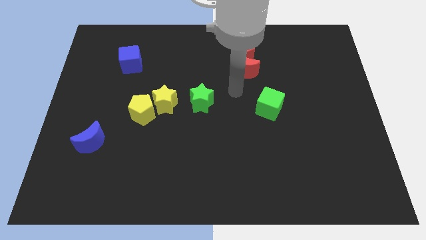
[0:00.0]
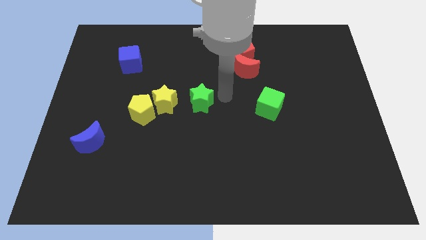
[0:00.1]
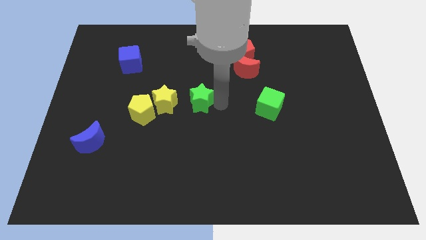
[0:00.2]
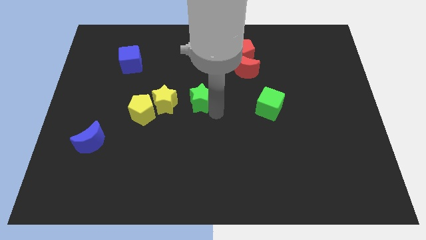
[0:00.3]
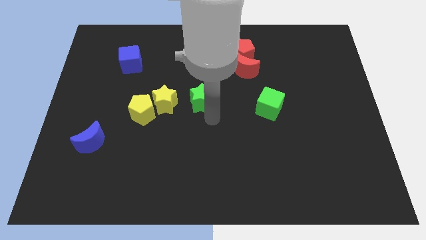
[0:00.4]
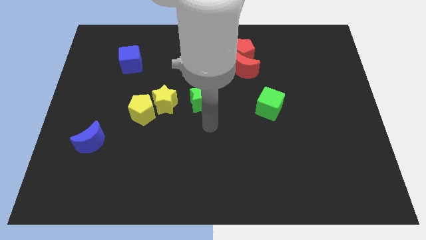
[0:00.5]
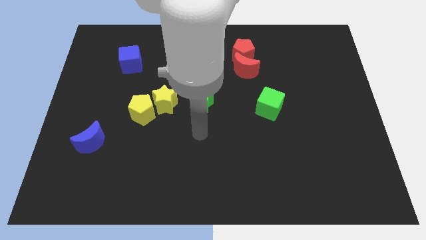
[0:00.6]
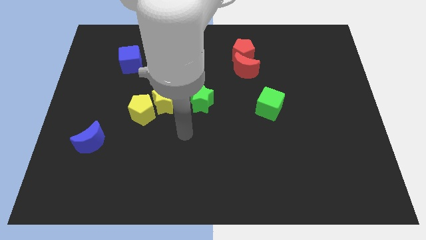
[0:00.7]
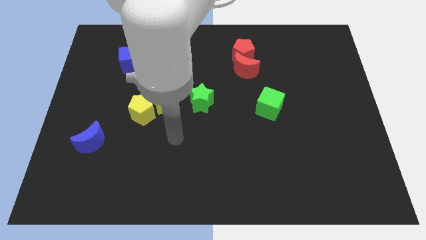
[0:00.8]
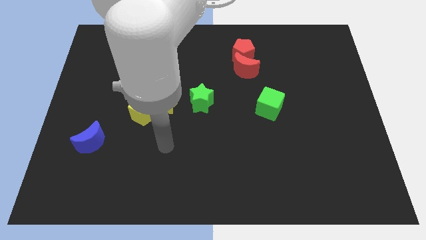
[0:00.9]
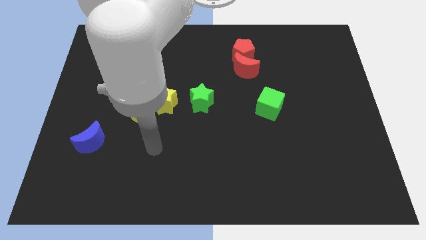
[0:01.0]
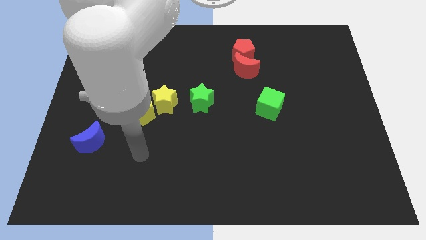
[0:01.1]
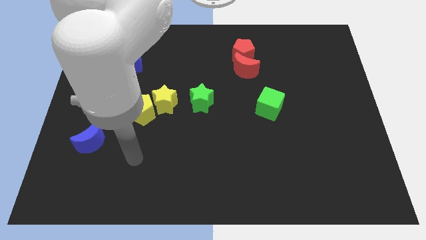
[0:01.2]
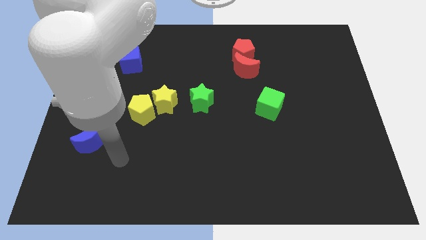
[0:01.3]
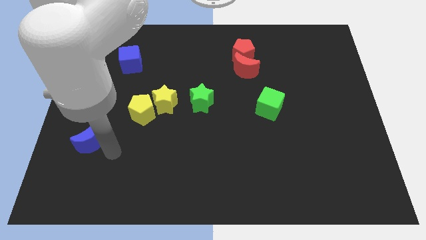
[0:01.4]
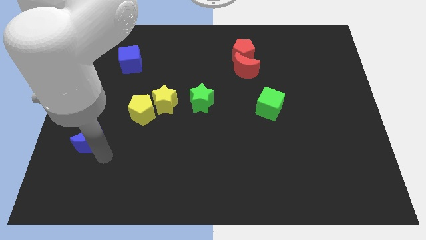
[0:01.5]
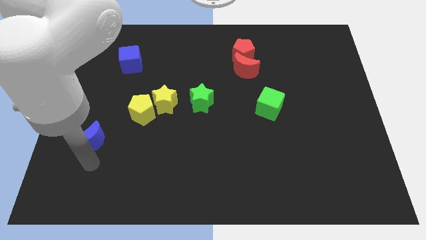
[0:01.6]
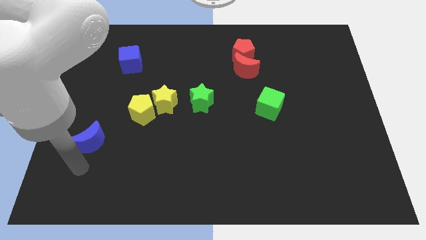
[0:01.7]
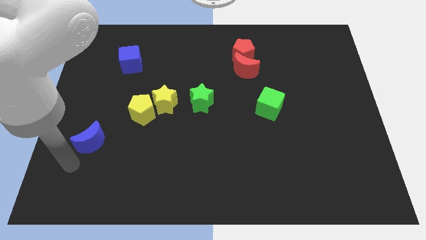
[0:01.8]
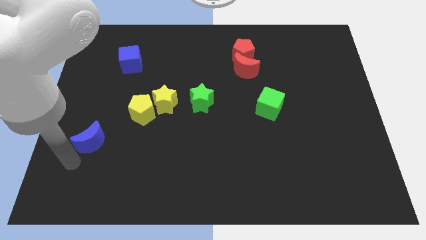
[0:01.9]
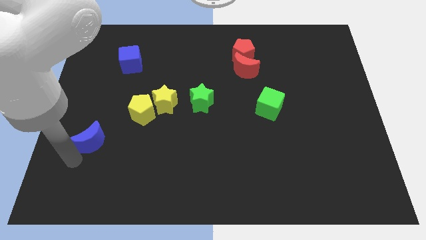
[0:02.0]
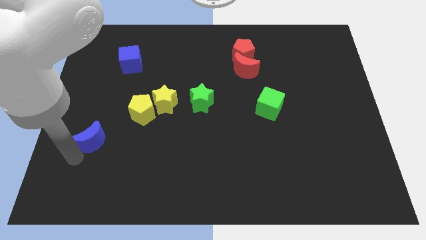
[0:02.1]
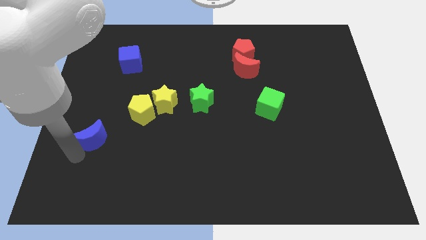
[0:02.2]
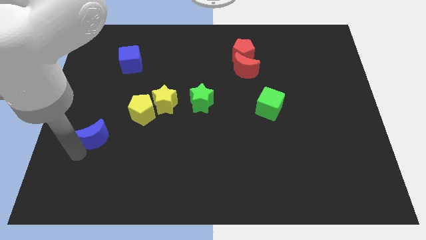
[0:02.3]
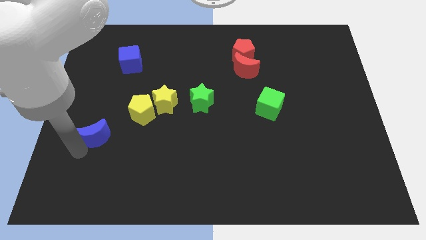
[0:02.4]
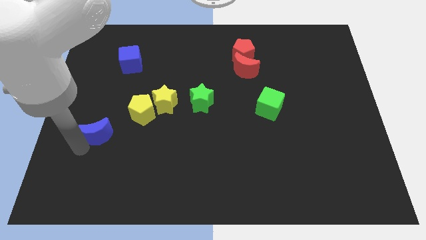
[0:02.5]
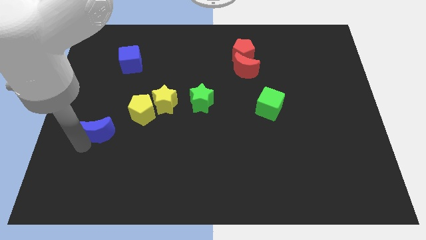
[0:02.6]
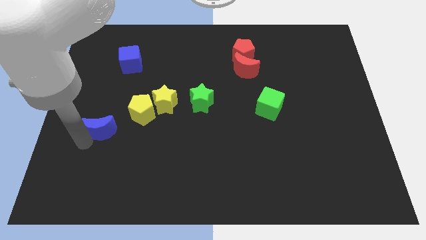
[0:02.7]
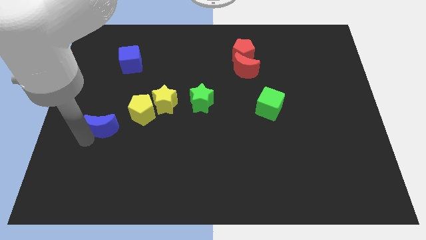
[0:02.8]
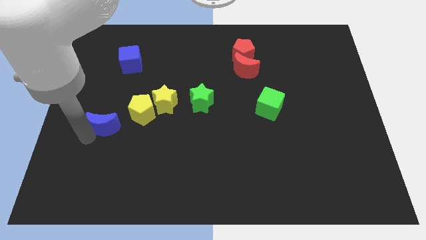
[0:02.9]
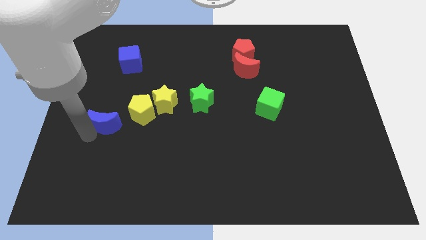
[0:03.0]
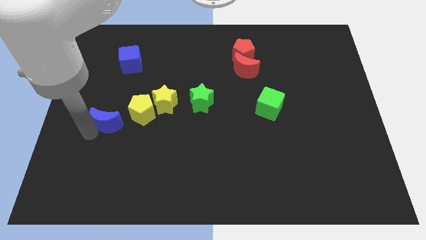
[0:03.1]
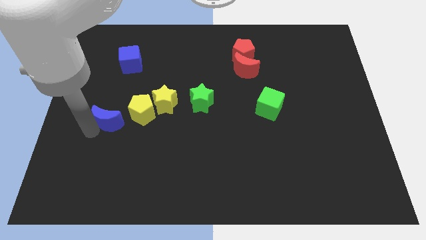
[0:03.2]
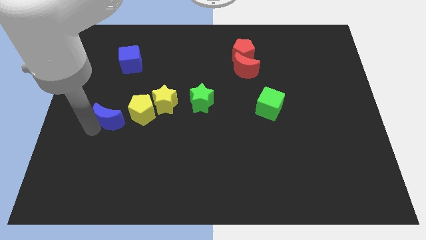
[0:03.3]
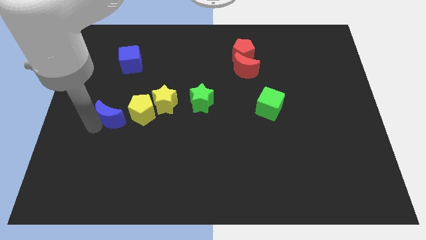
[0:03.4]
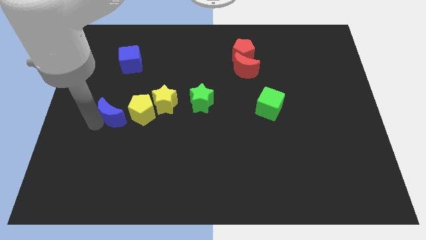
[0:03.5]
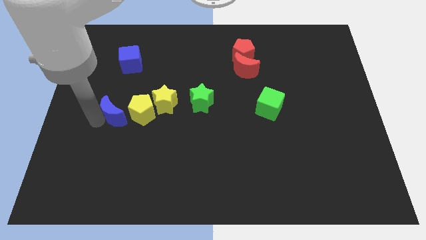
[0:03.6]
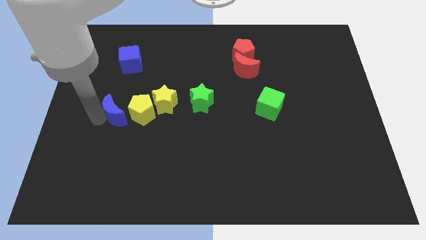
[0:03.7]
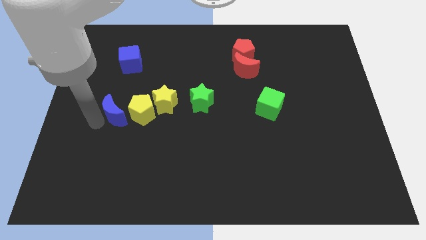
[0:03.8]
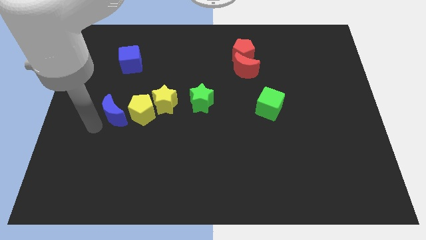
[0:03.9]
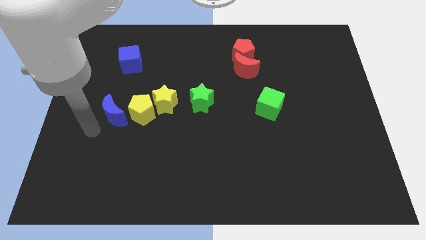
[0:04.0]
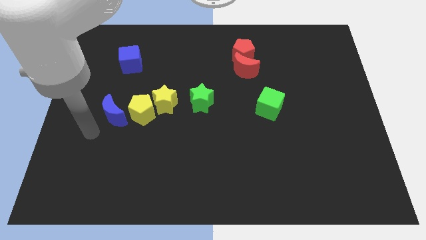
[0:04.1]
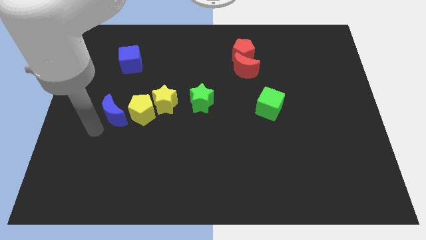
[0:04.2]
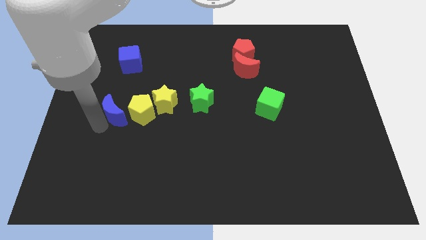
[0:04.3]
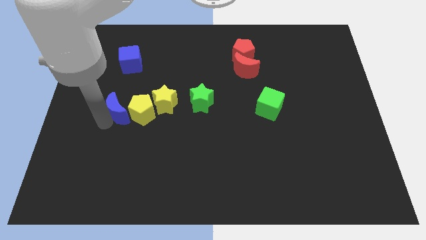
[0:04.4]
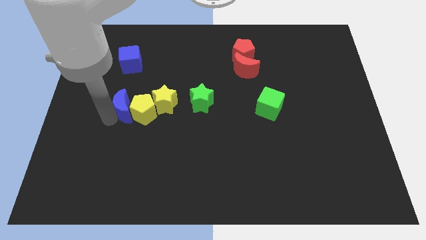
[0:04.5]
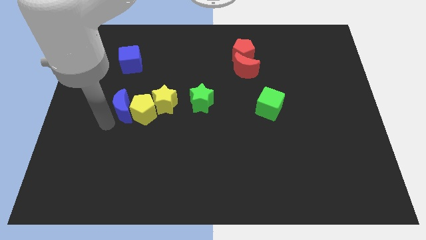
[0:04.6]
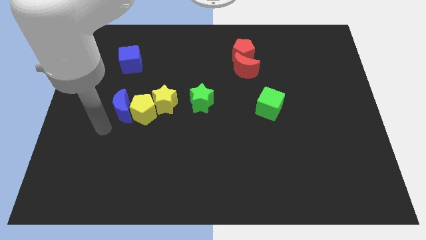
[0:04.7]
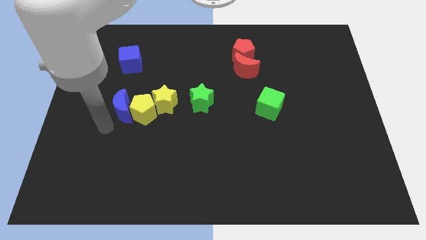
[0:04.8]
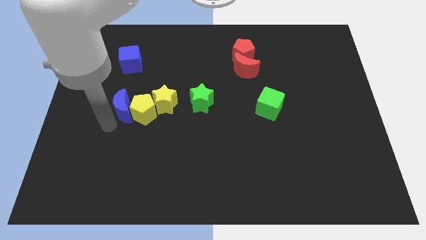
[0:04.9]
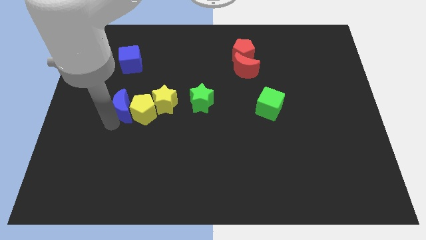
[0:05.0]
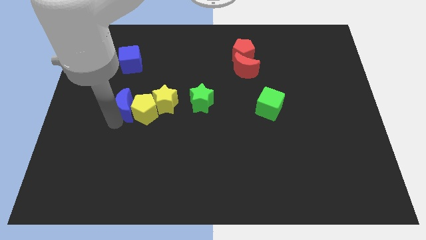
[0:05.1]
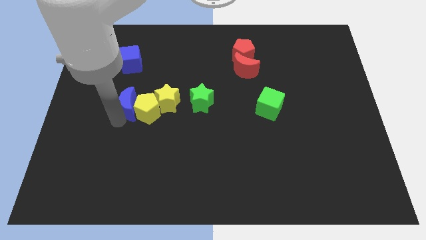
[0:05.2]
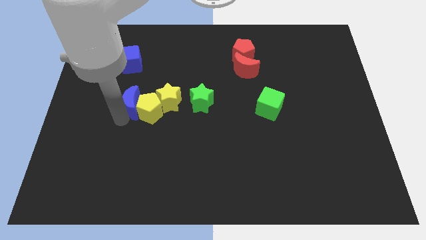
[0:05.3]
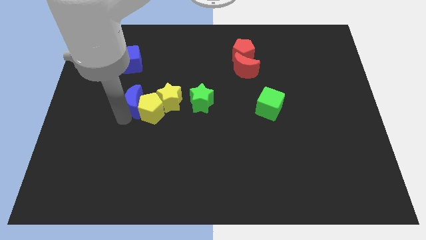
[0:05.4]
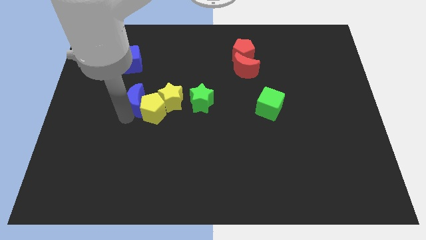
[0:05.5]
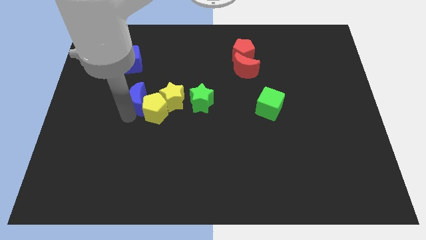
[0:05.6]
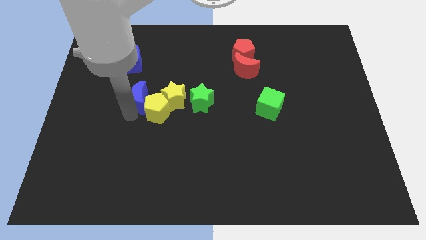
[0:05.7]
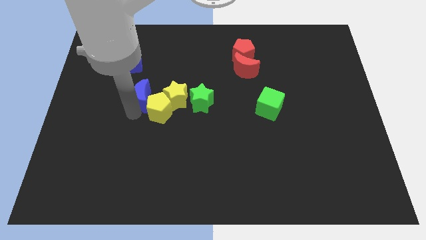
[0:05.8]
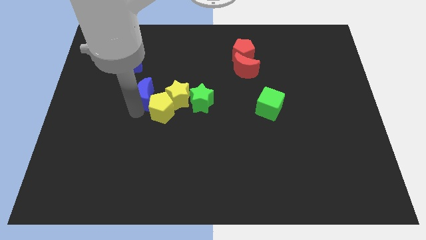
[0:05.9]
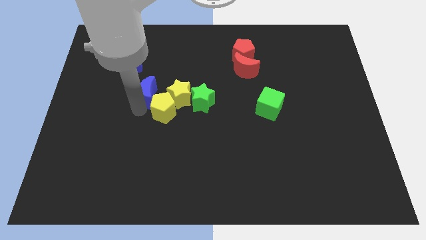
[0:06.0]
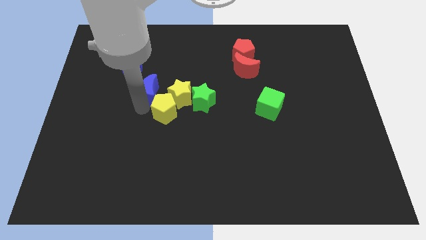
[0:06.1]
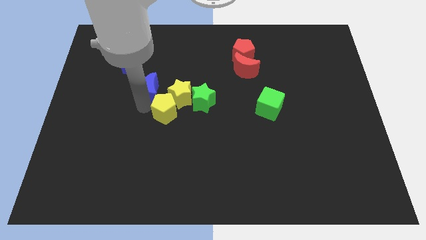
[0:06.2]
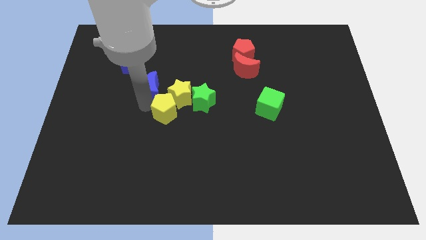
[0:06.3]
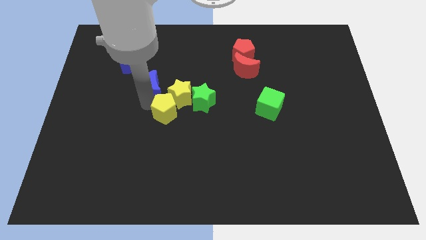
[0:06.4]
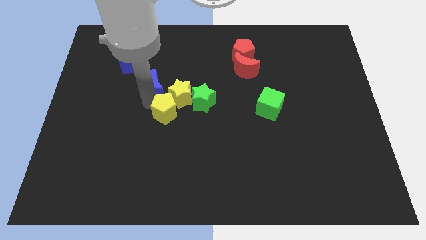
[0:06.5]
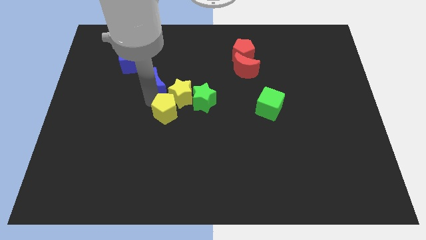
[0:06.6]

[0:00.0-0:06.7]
push the blue moon up and right diagonally

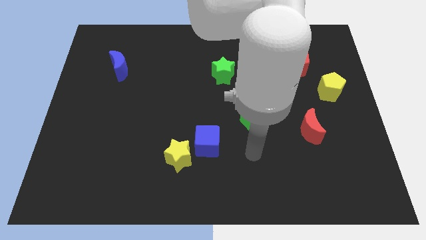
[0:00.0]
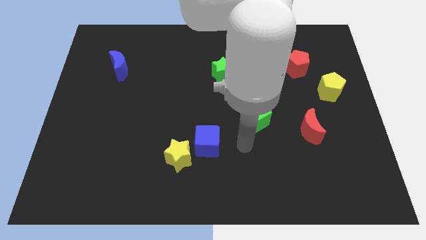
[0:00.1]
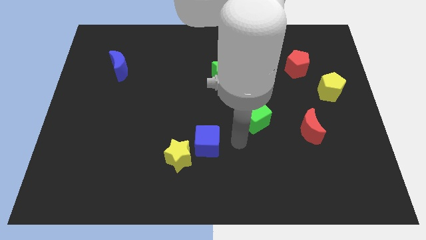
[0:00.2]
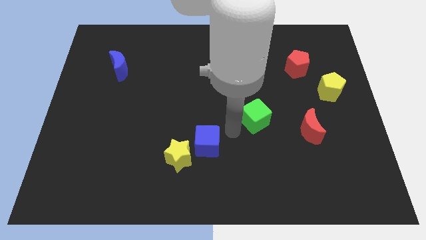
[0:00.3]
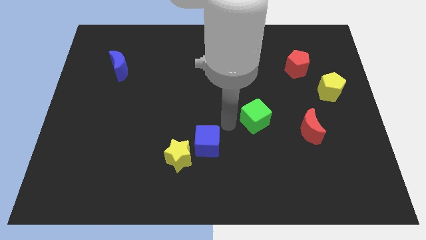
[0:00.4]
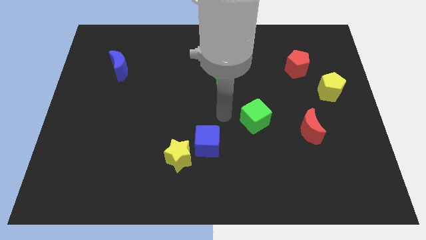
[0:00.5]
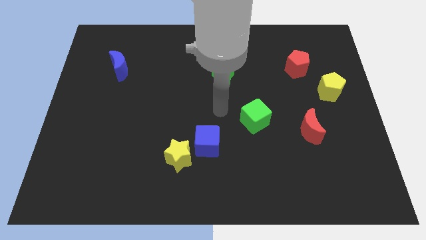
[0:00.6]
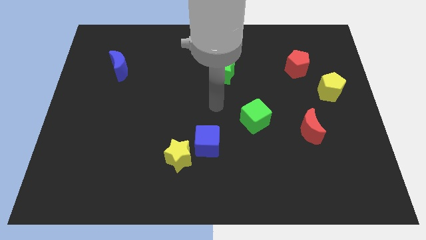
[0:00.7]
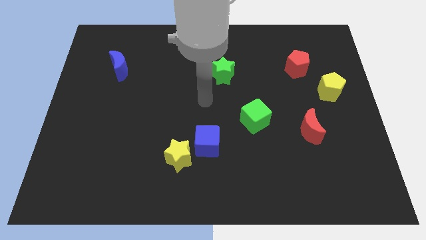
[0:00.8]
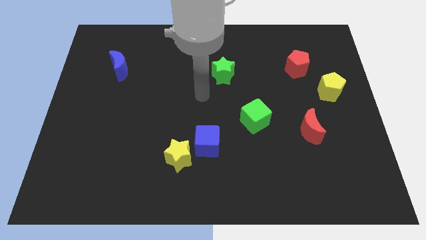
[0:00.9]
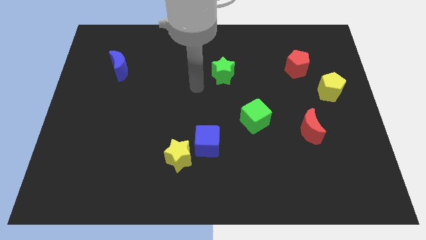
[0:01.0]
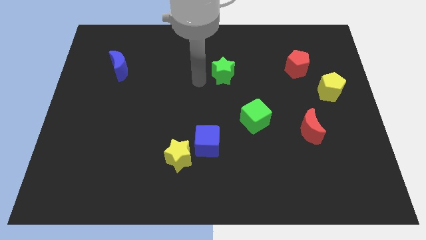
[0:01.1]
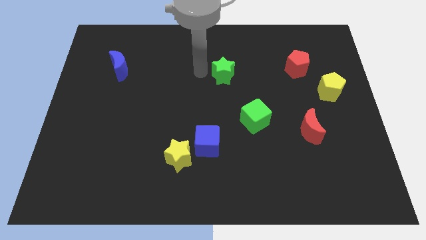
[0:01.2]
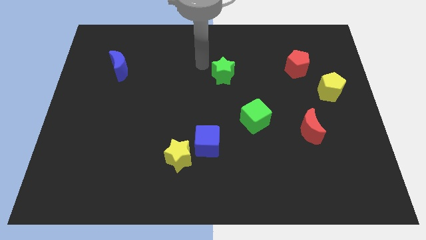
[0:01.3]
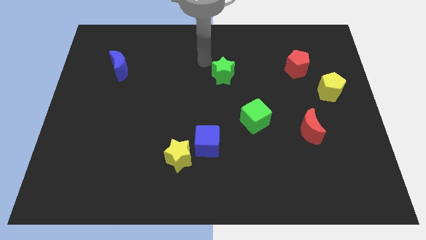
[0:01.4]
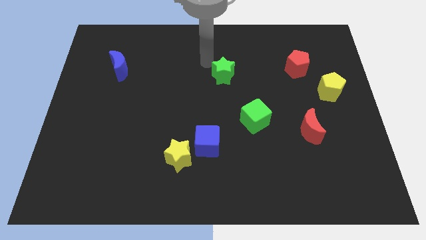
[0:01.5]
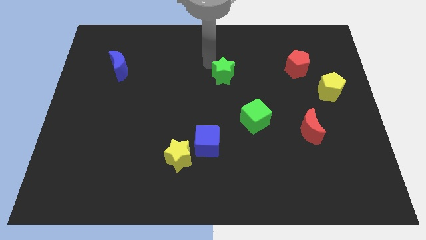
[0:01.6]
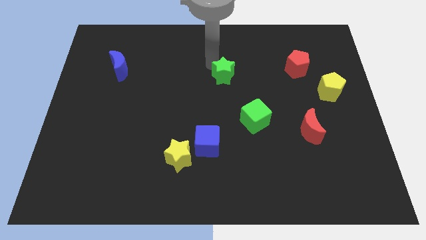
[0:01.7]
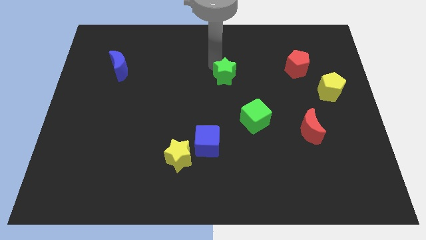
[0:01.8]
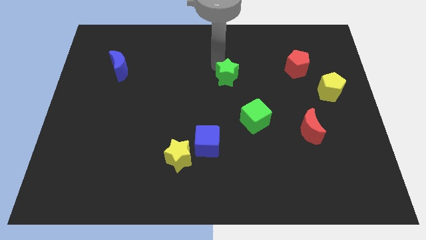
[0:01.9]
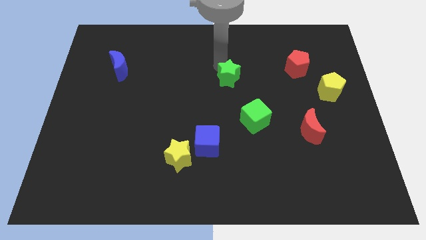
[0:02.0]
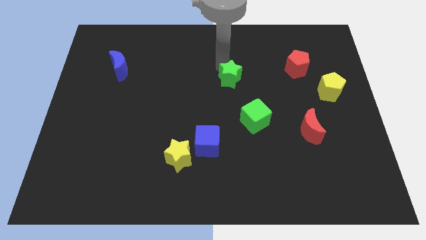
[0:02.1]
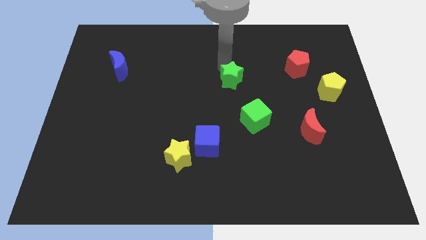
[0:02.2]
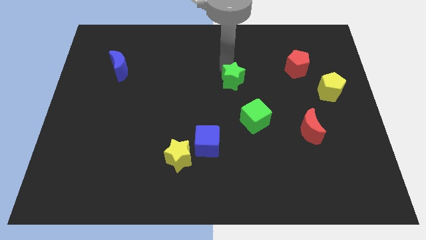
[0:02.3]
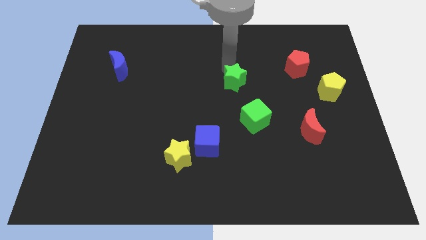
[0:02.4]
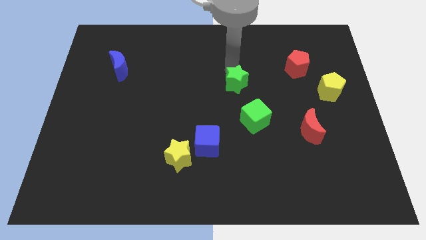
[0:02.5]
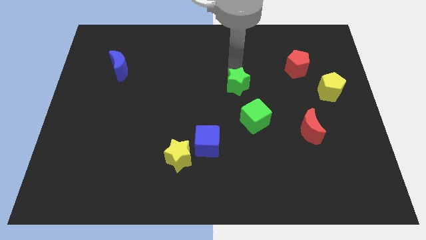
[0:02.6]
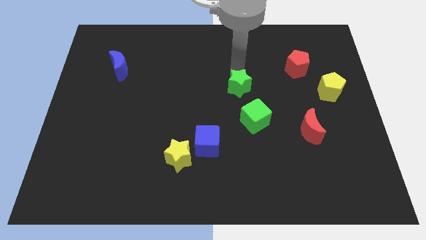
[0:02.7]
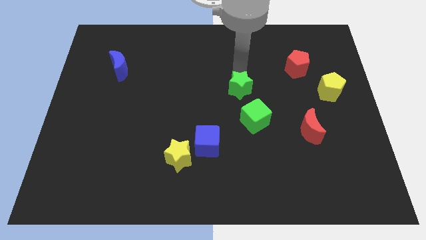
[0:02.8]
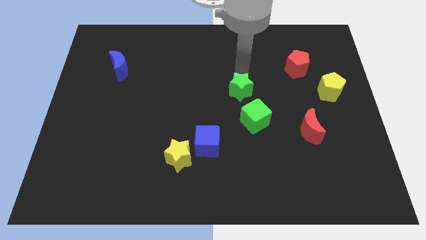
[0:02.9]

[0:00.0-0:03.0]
move the green star a little bit downwards and then to the right
